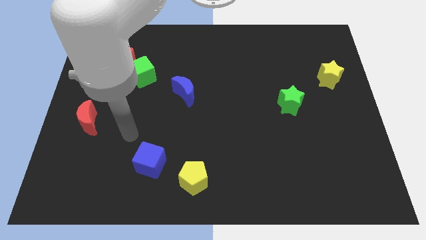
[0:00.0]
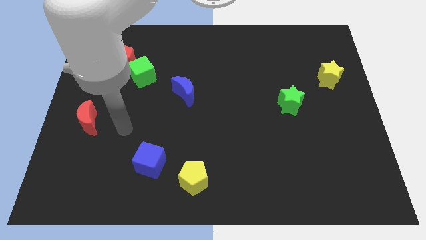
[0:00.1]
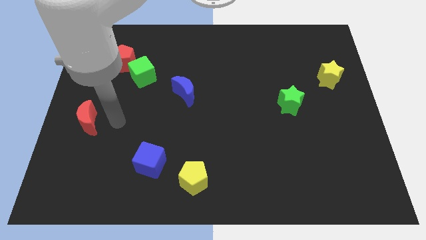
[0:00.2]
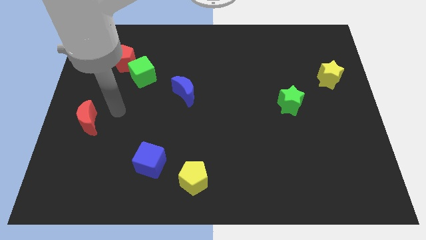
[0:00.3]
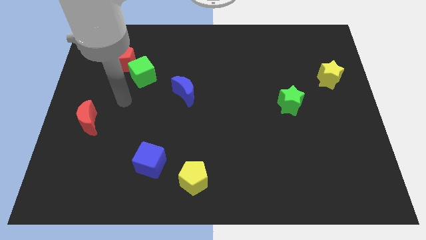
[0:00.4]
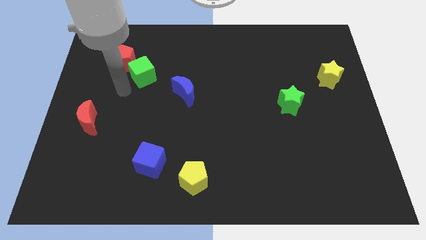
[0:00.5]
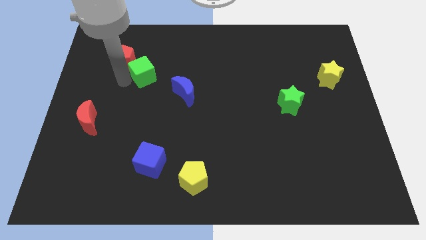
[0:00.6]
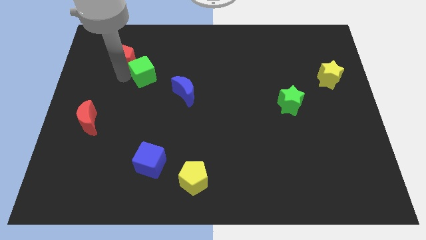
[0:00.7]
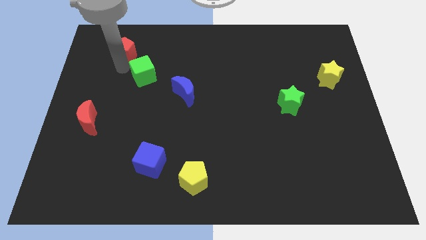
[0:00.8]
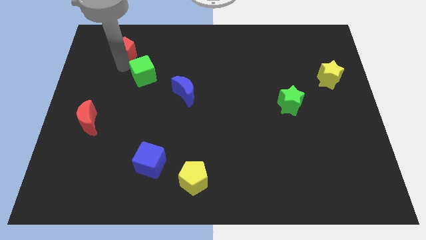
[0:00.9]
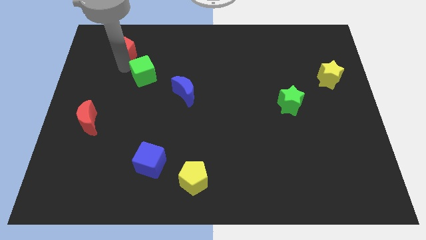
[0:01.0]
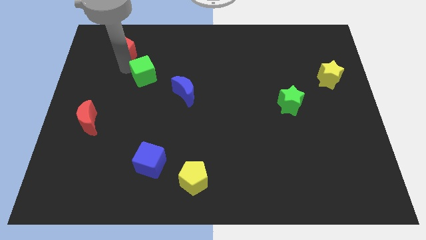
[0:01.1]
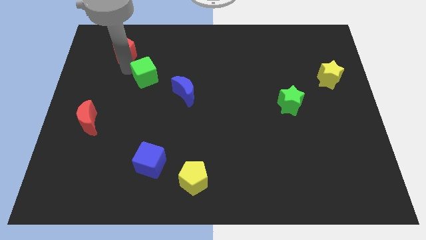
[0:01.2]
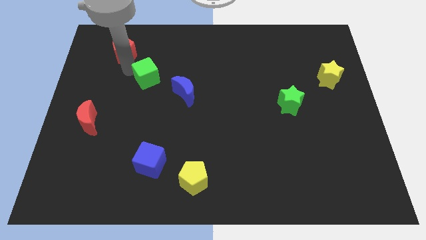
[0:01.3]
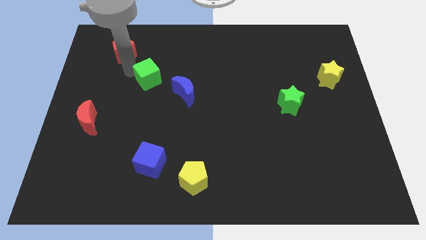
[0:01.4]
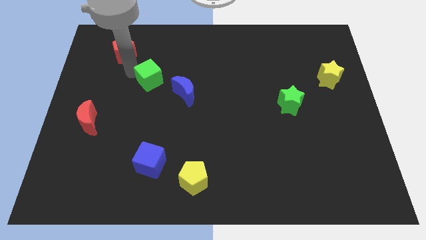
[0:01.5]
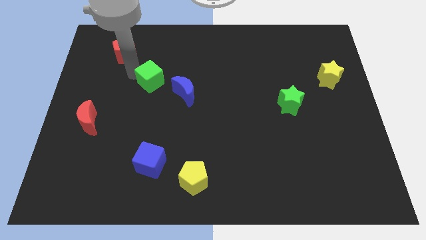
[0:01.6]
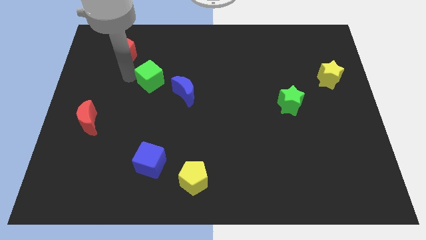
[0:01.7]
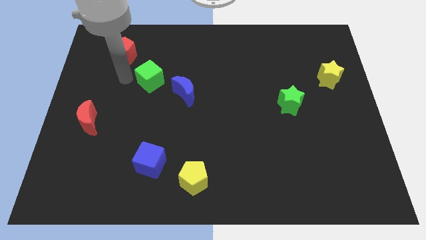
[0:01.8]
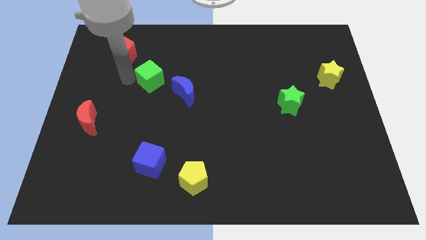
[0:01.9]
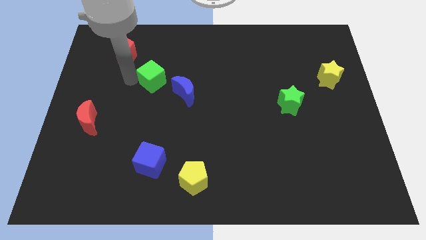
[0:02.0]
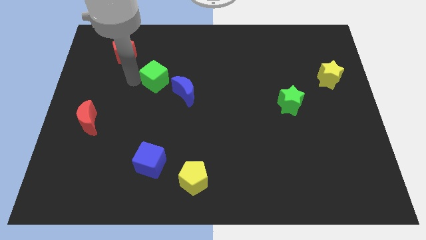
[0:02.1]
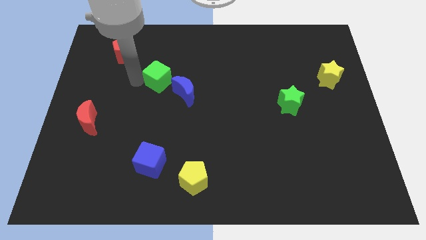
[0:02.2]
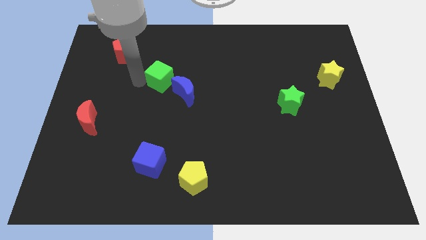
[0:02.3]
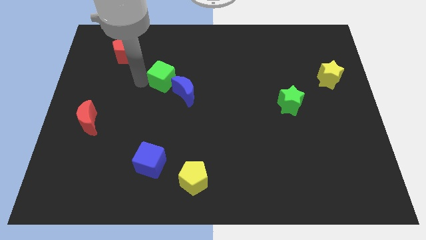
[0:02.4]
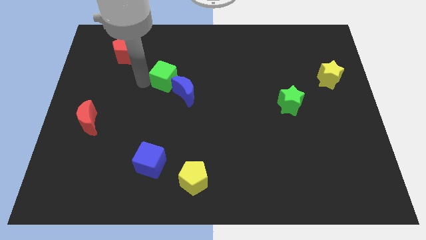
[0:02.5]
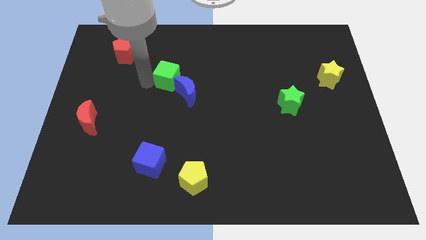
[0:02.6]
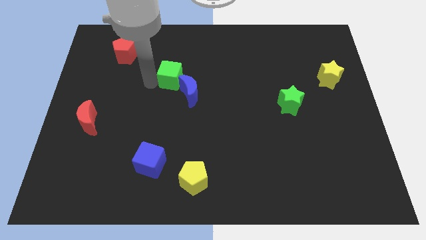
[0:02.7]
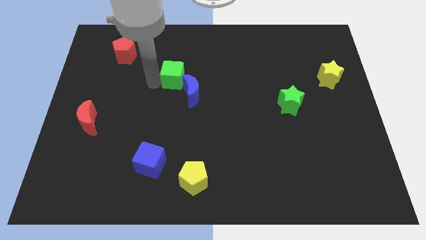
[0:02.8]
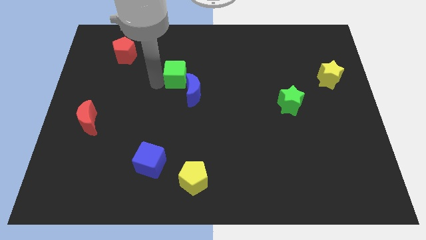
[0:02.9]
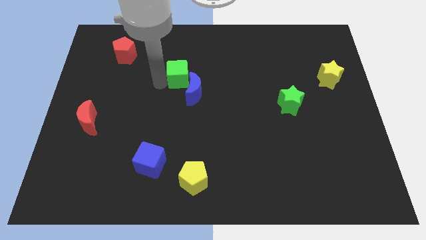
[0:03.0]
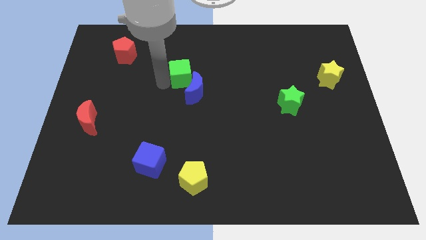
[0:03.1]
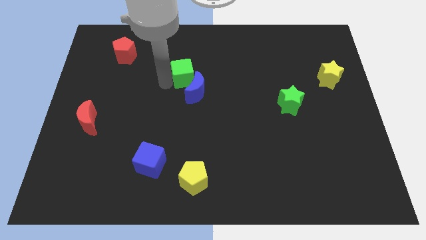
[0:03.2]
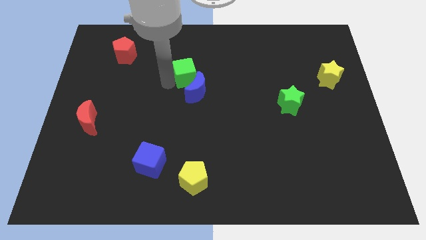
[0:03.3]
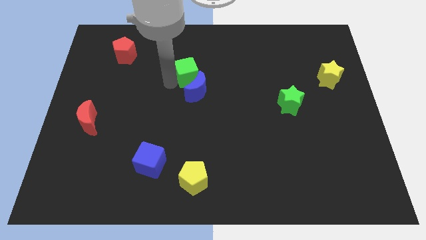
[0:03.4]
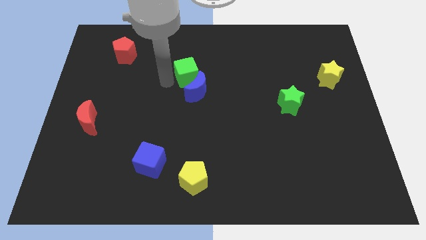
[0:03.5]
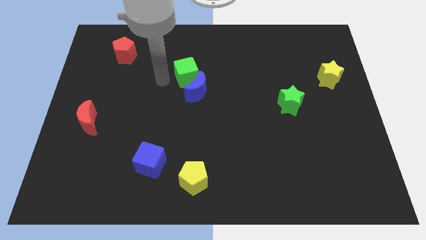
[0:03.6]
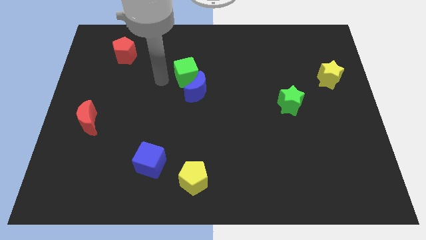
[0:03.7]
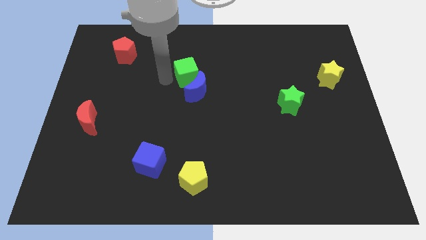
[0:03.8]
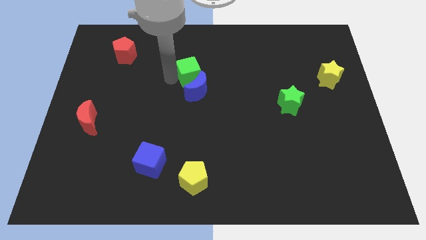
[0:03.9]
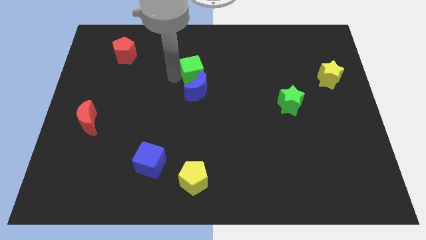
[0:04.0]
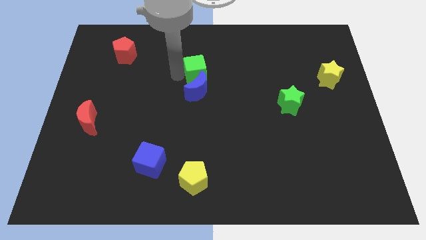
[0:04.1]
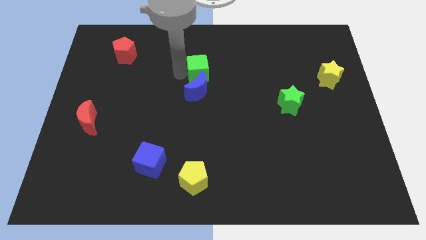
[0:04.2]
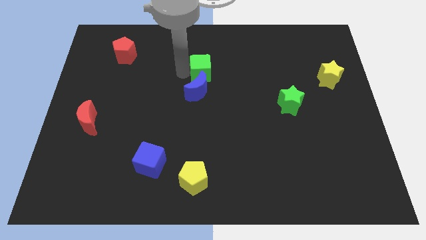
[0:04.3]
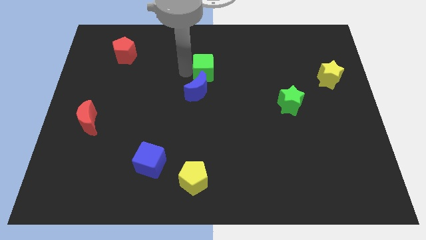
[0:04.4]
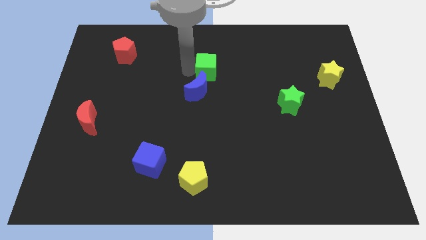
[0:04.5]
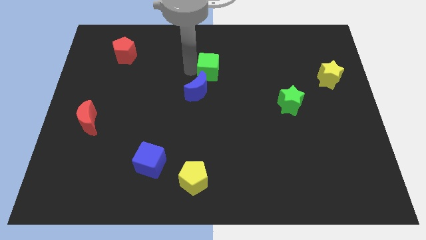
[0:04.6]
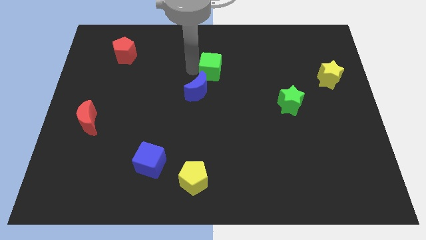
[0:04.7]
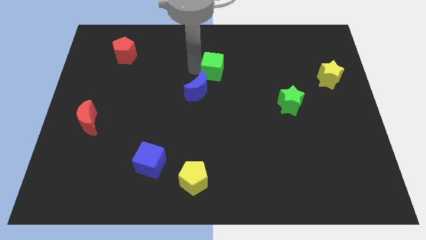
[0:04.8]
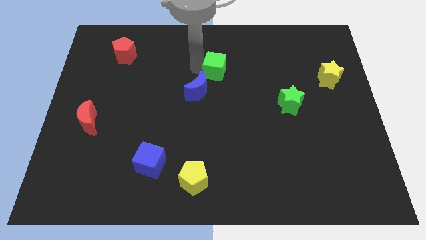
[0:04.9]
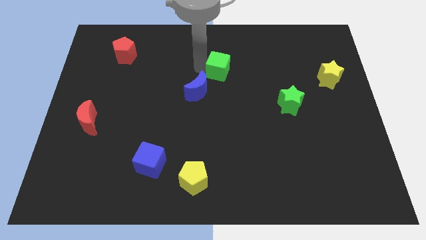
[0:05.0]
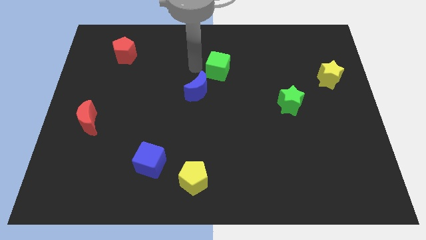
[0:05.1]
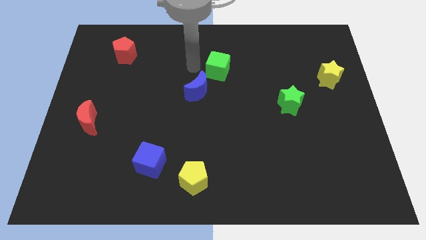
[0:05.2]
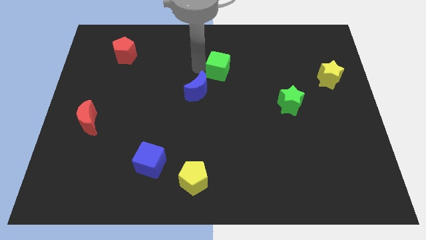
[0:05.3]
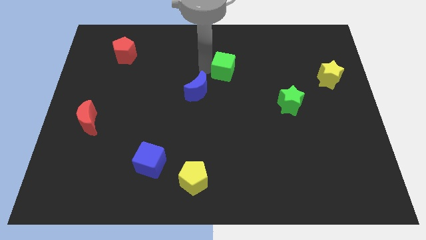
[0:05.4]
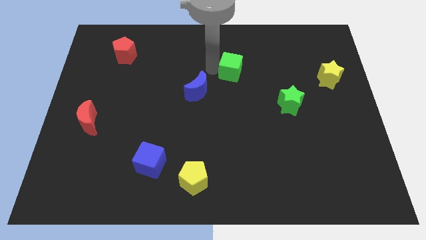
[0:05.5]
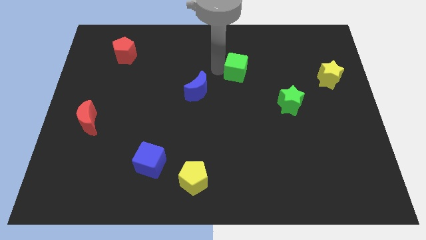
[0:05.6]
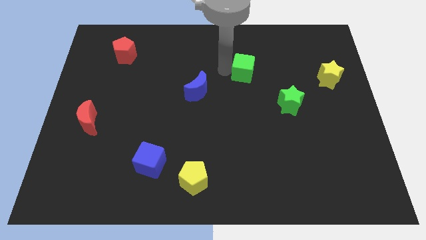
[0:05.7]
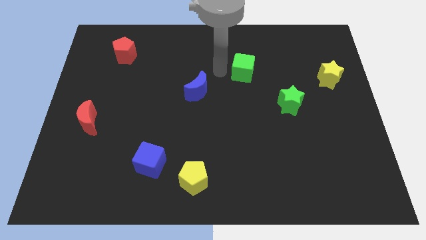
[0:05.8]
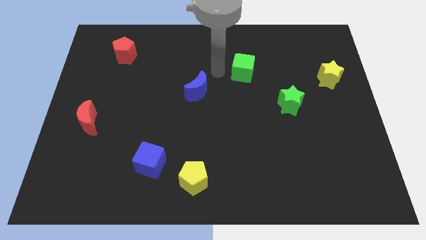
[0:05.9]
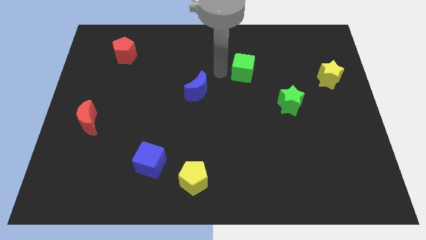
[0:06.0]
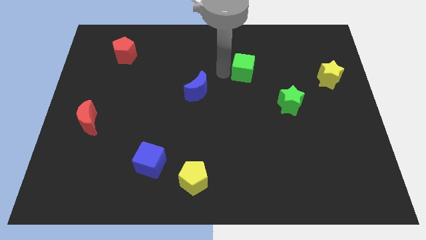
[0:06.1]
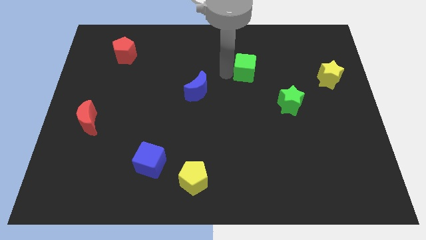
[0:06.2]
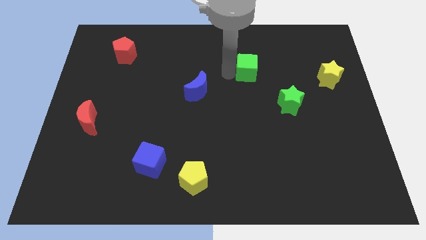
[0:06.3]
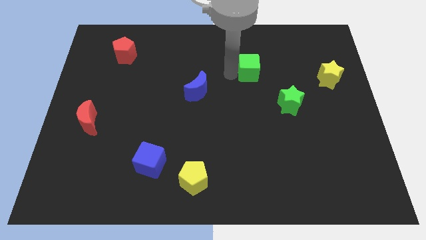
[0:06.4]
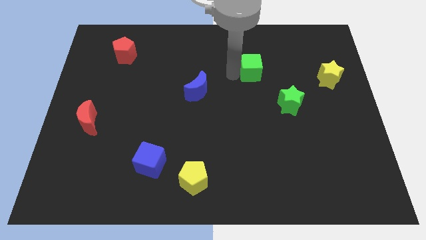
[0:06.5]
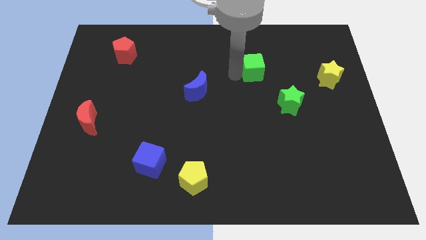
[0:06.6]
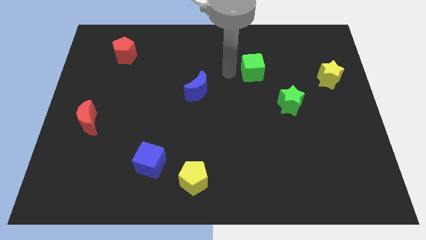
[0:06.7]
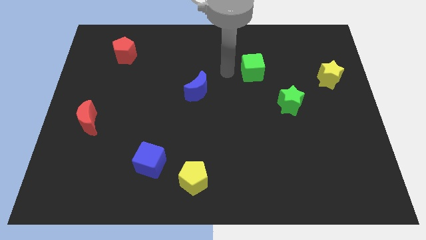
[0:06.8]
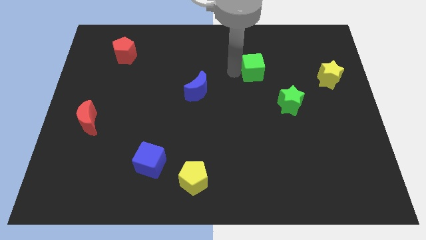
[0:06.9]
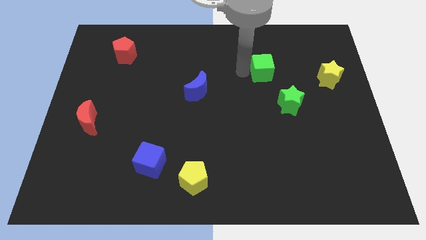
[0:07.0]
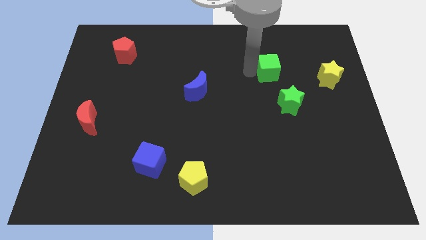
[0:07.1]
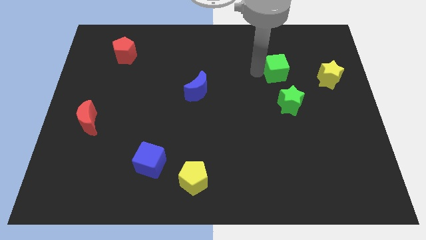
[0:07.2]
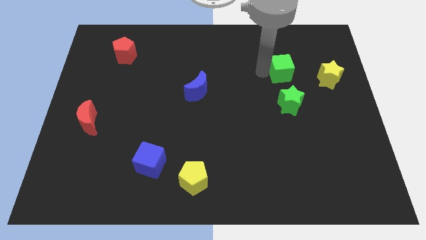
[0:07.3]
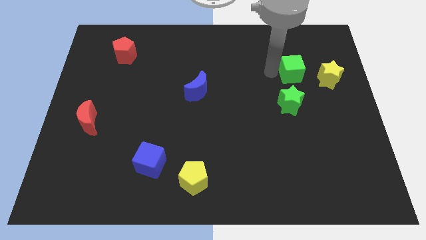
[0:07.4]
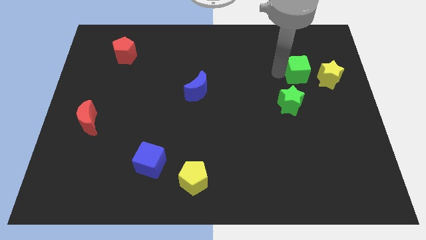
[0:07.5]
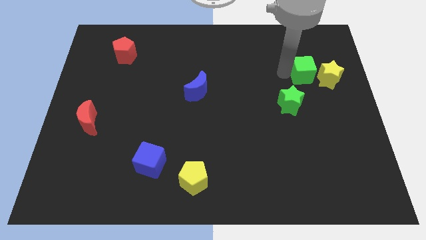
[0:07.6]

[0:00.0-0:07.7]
push the green cube next to the yellow star

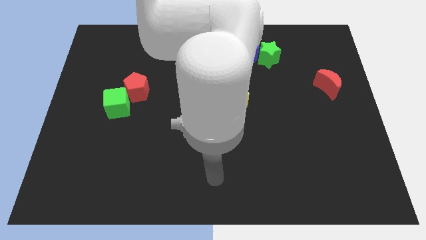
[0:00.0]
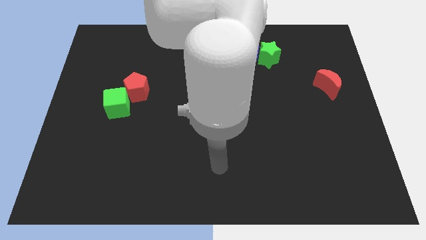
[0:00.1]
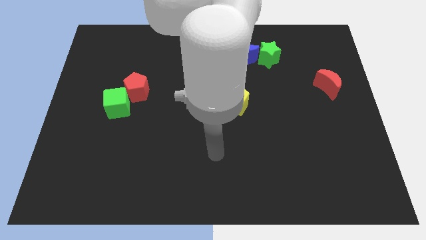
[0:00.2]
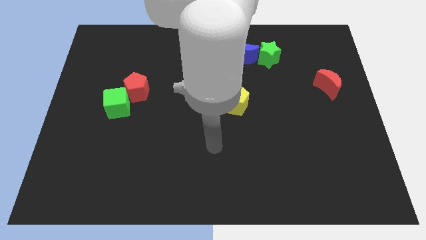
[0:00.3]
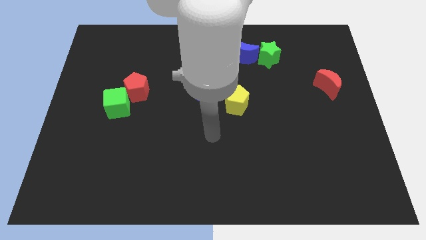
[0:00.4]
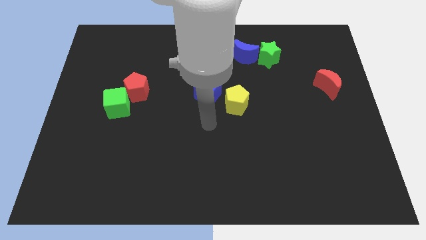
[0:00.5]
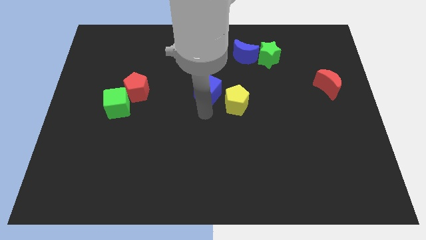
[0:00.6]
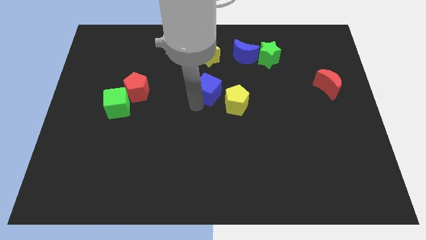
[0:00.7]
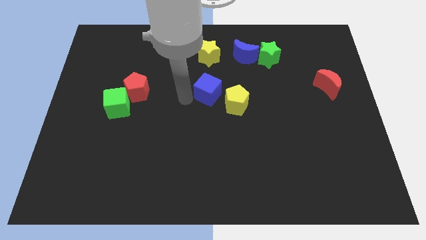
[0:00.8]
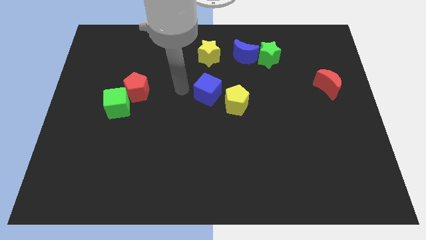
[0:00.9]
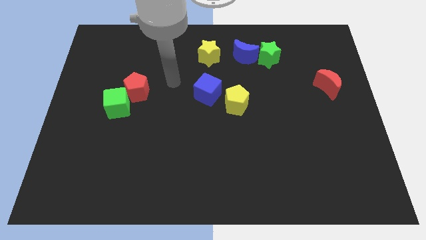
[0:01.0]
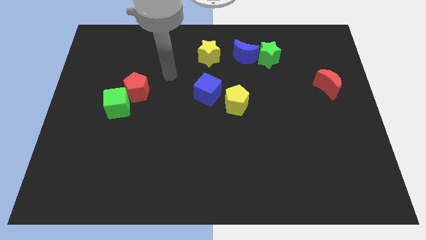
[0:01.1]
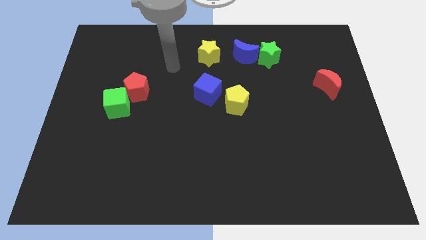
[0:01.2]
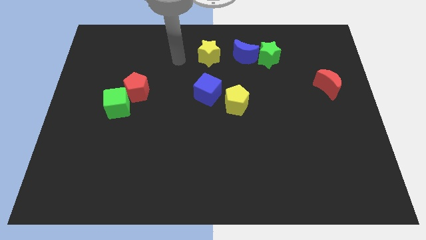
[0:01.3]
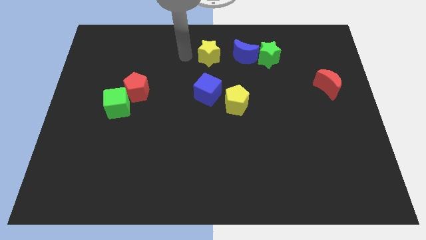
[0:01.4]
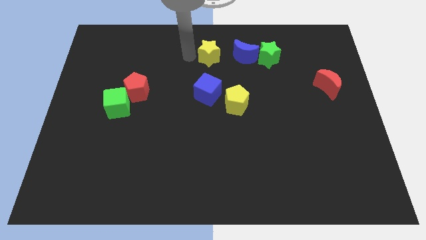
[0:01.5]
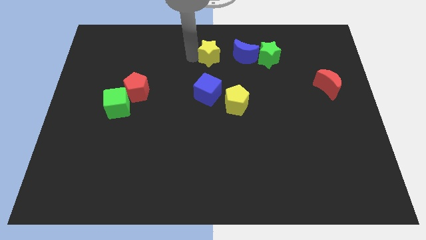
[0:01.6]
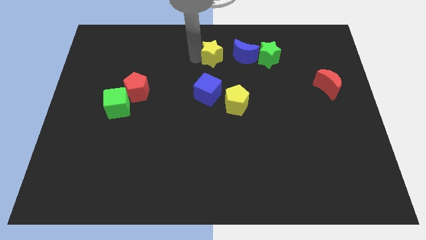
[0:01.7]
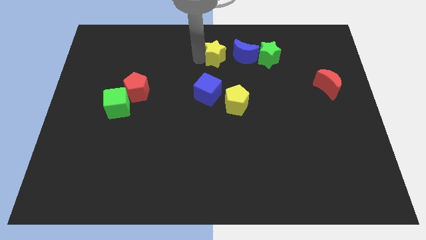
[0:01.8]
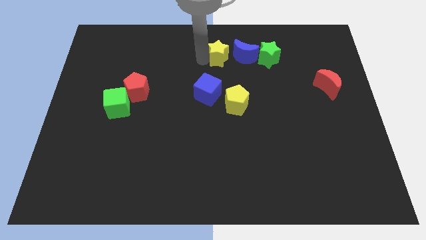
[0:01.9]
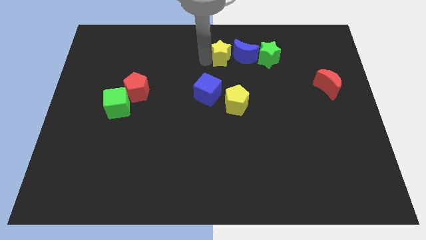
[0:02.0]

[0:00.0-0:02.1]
push the yellow star close to the blue moon
